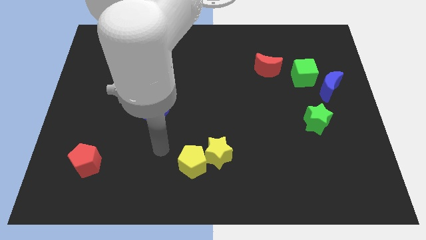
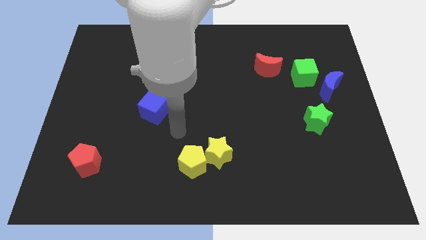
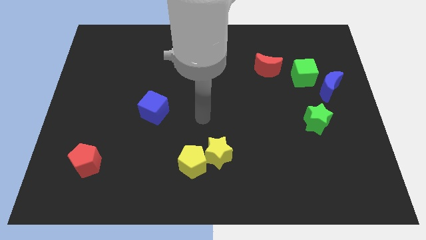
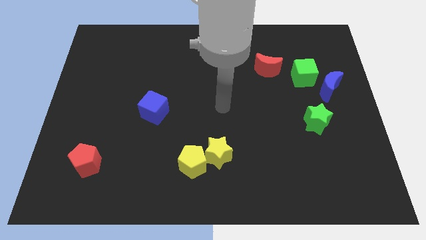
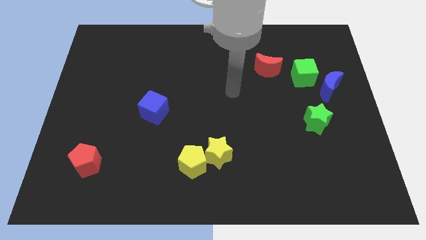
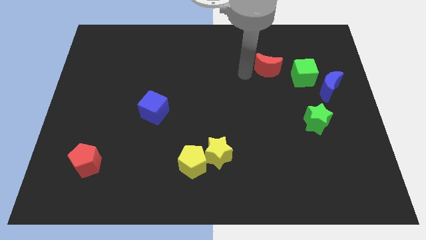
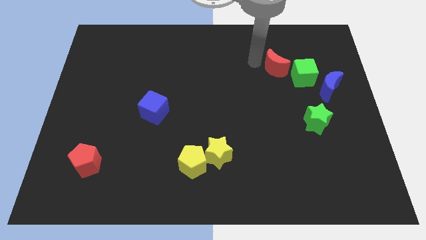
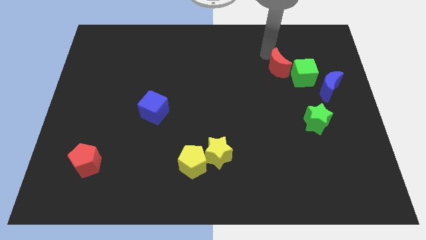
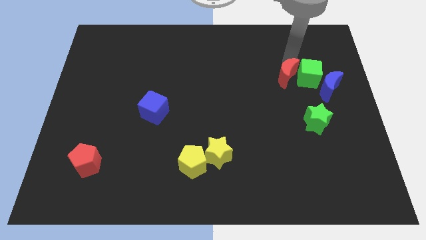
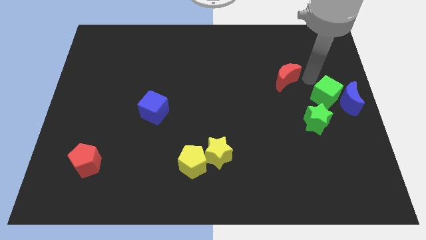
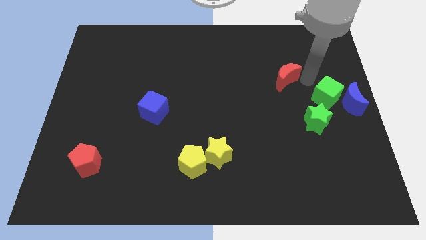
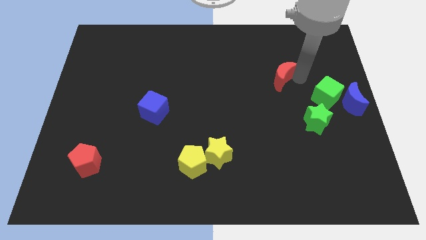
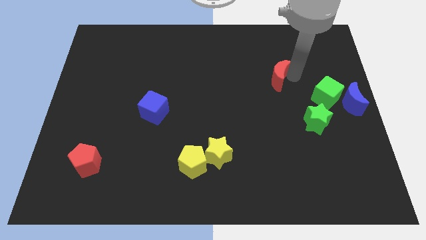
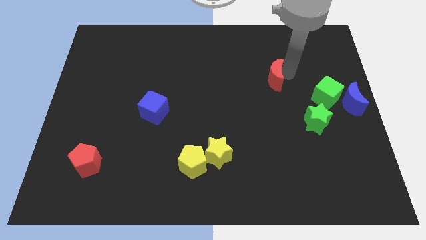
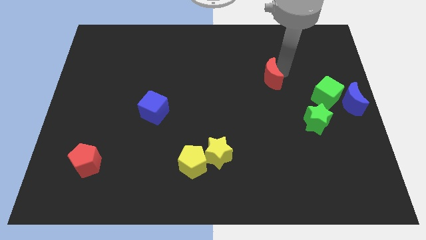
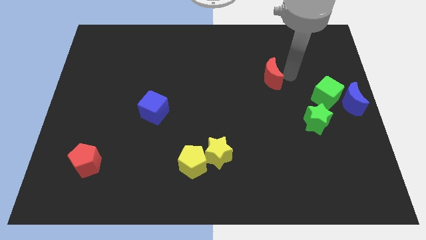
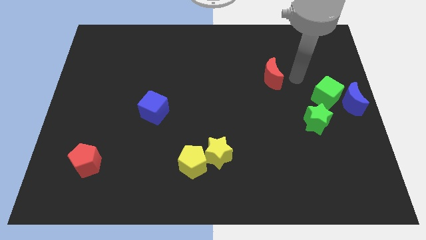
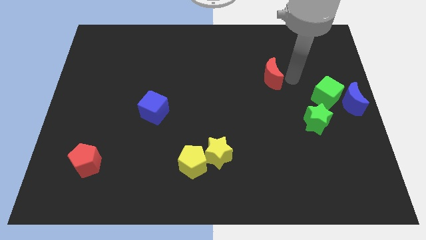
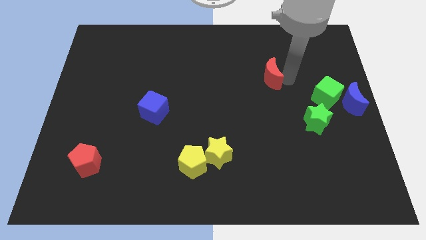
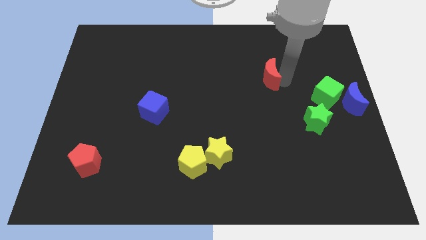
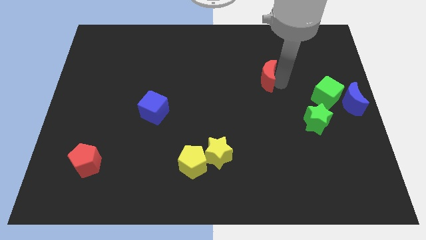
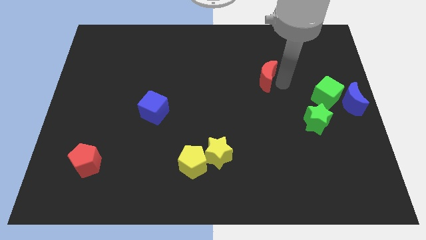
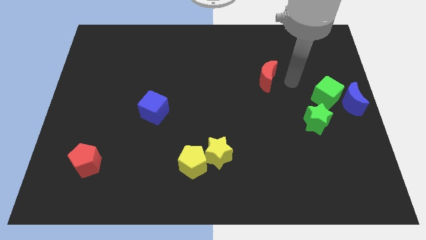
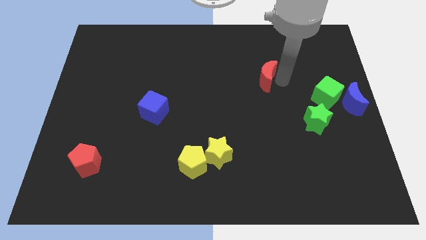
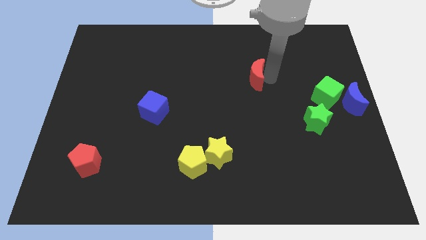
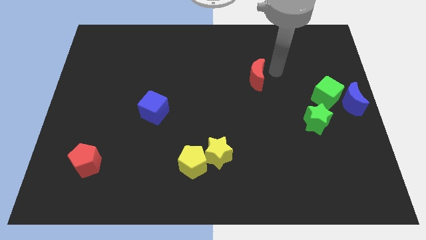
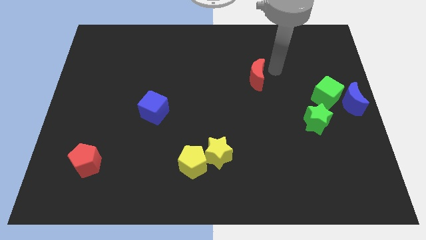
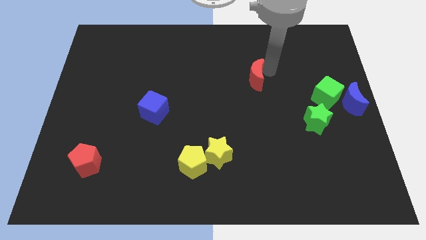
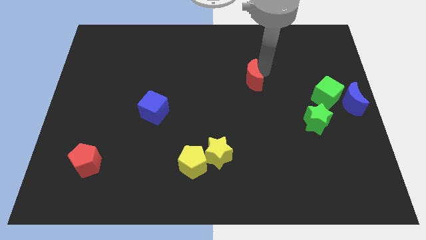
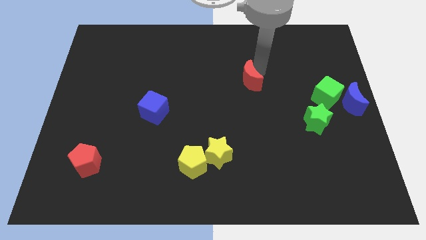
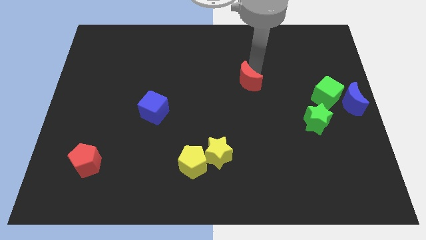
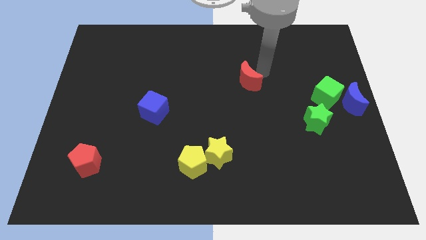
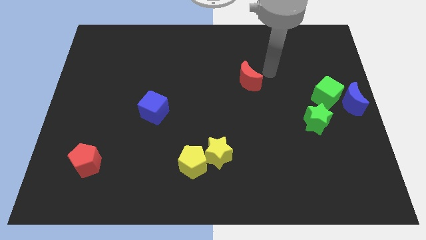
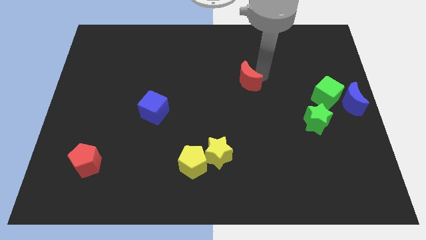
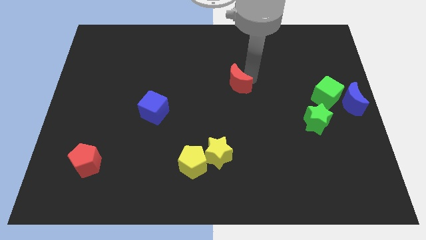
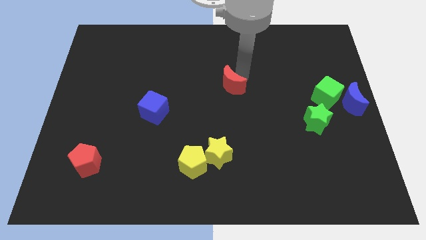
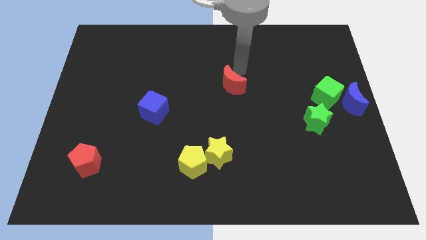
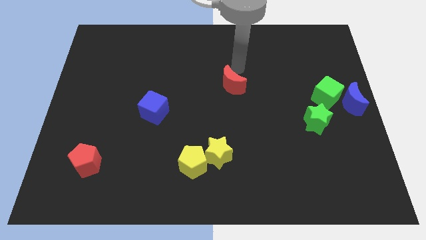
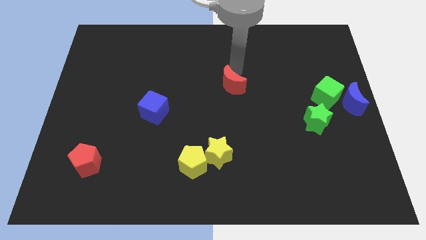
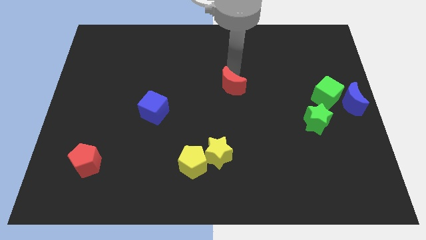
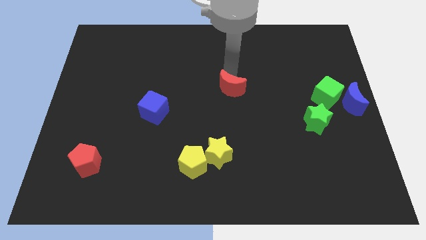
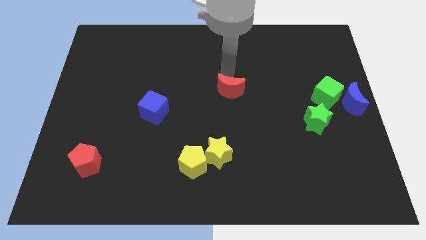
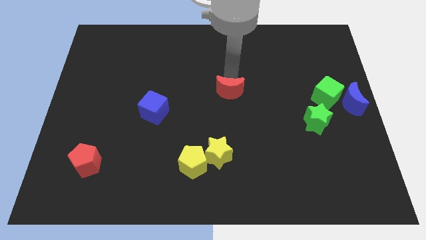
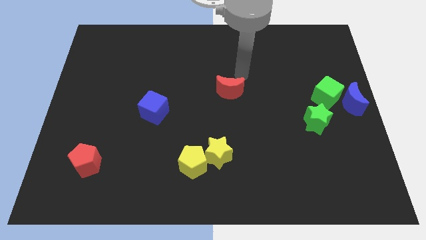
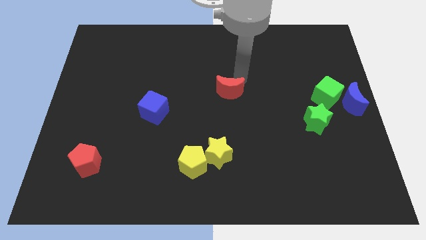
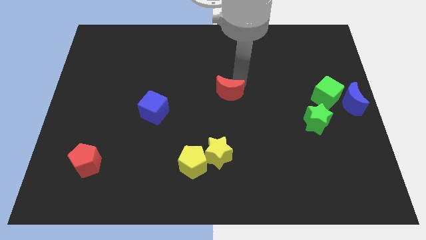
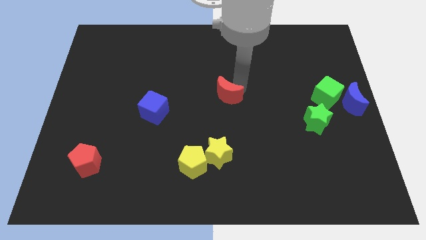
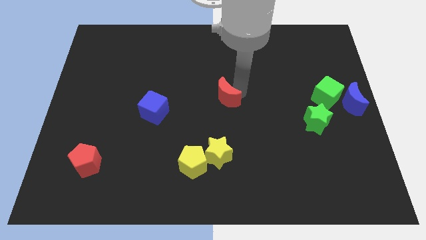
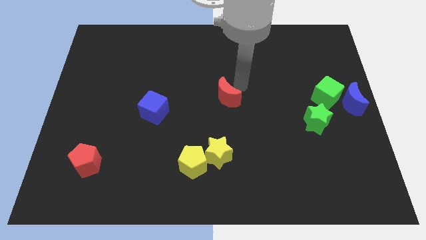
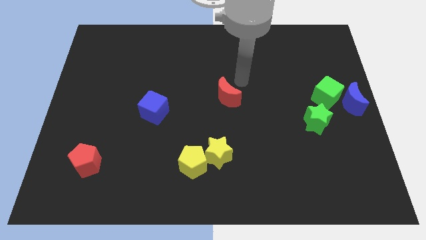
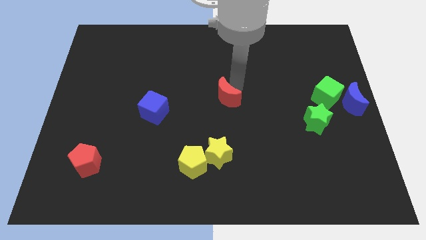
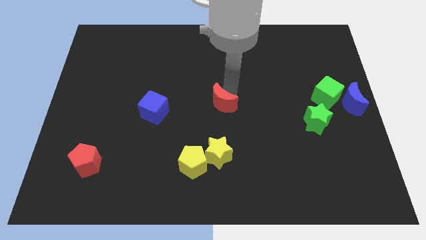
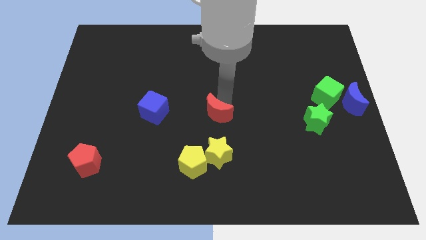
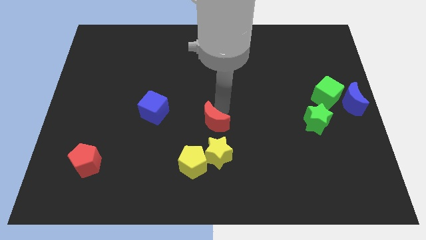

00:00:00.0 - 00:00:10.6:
slide the red moon downwards and to the left diagonally

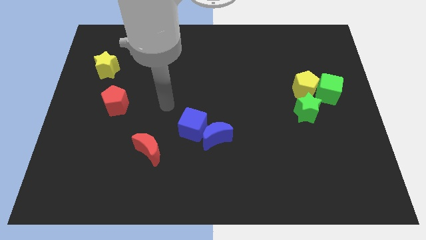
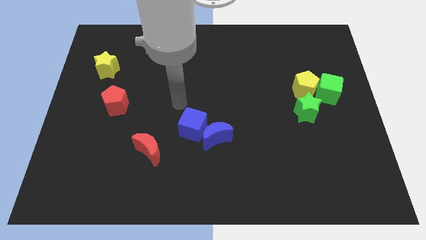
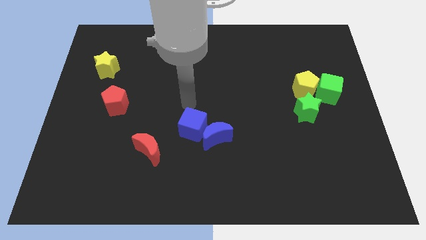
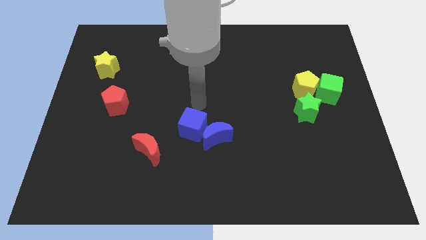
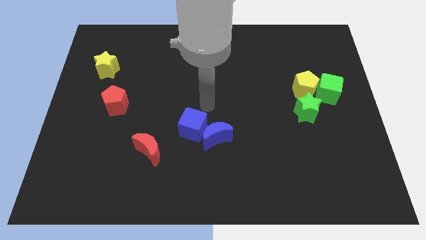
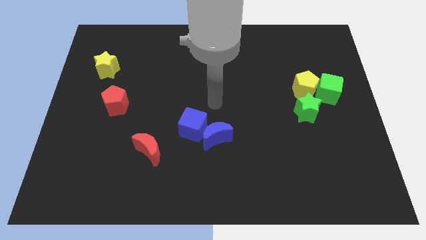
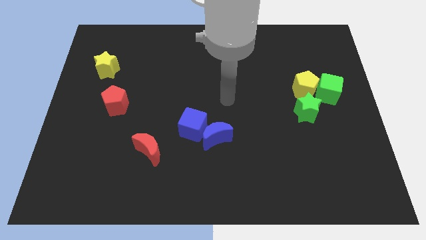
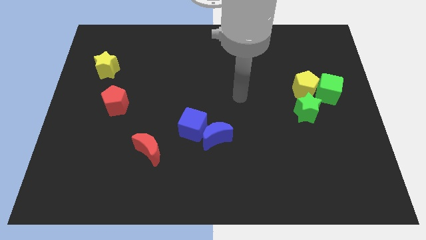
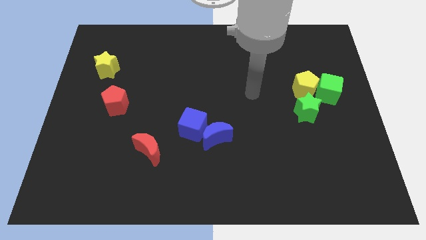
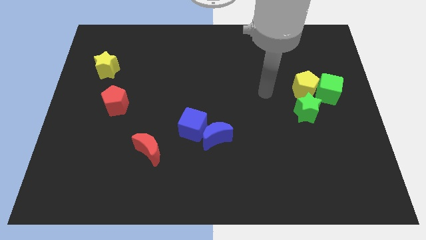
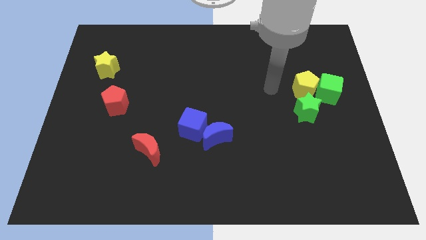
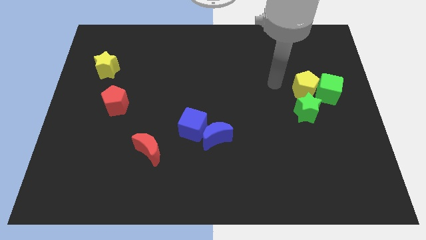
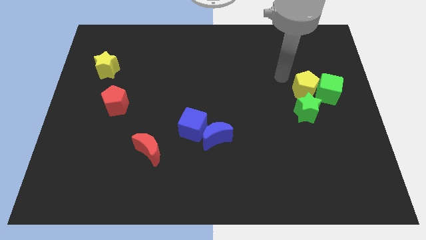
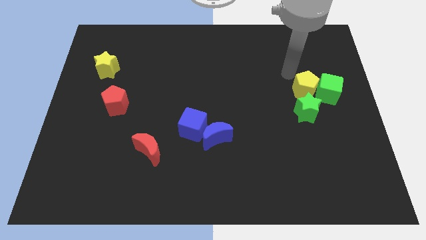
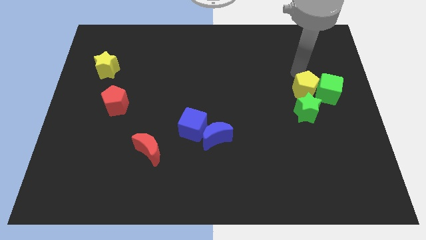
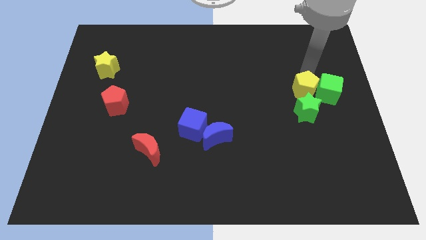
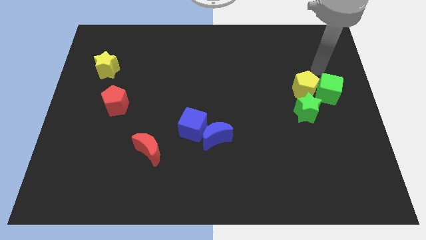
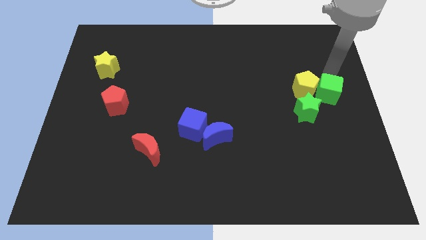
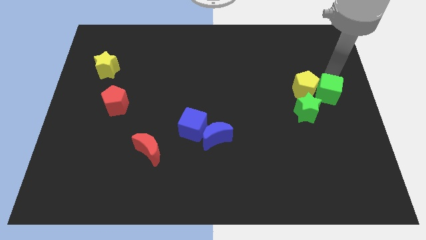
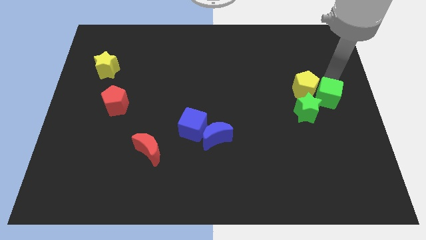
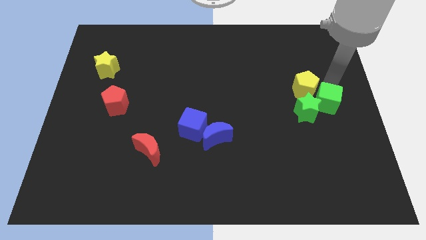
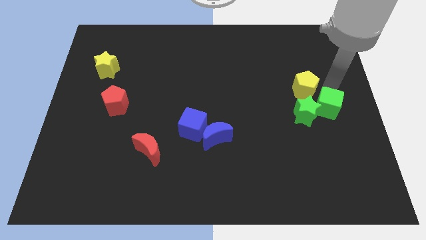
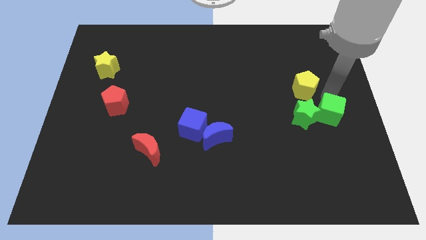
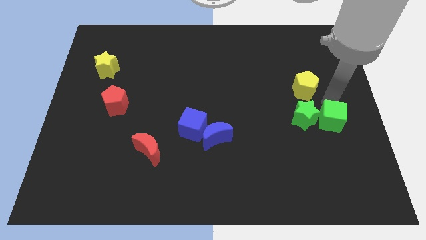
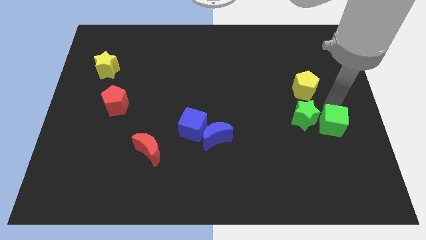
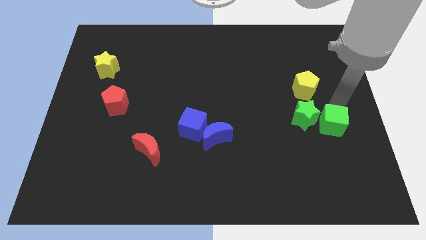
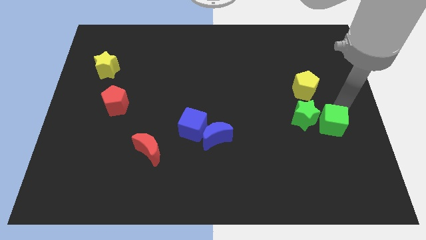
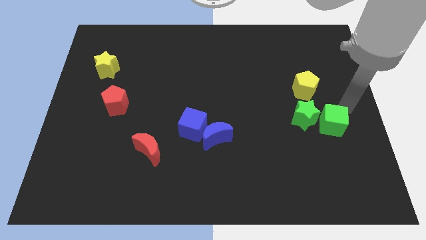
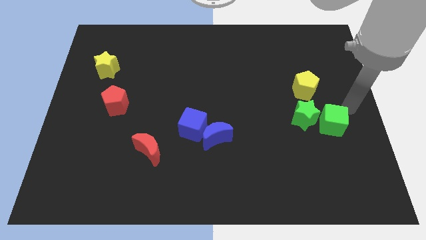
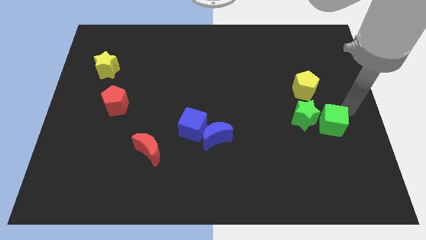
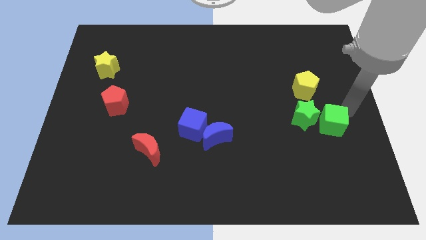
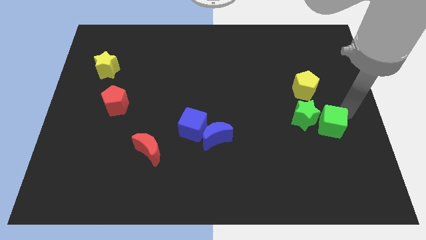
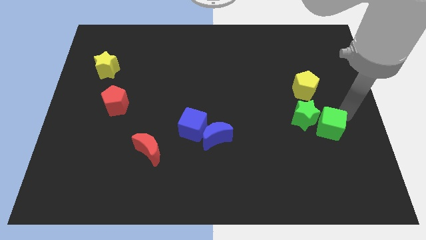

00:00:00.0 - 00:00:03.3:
slide the green cube downwards and left diagonally a bit

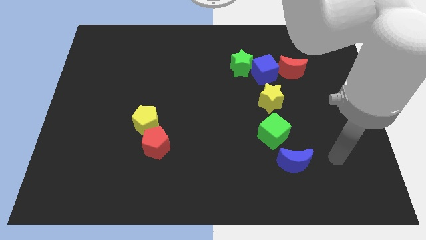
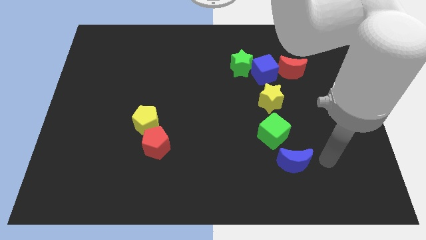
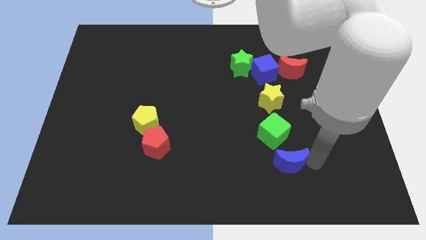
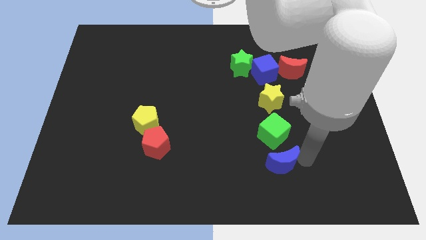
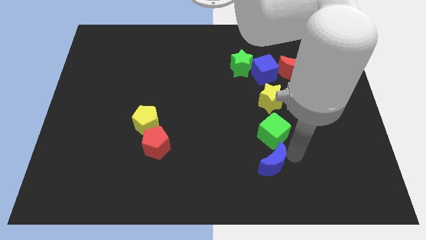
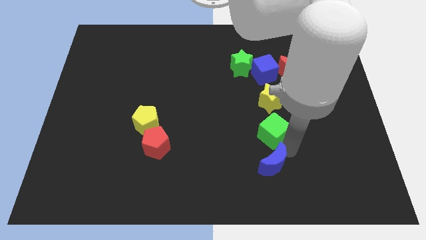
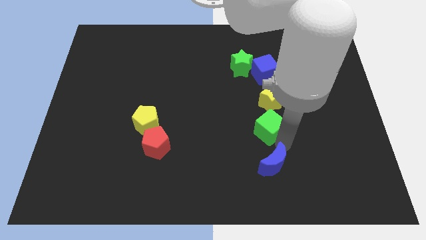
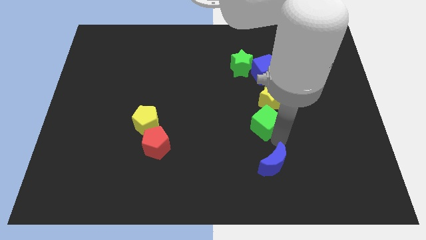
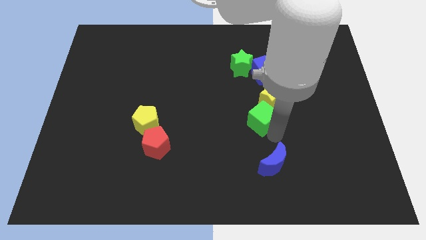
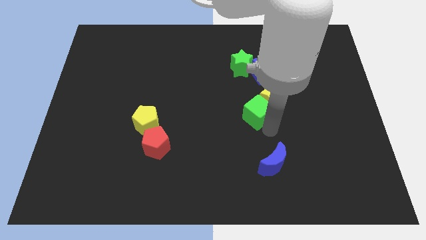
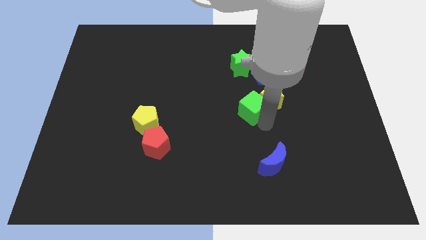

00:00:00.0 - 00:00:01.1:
slide the green cube a little upwards and to the left diagonally
